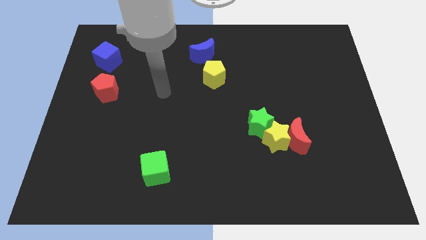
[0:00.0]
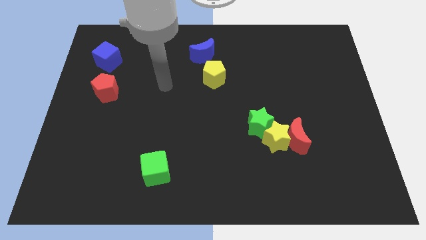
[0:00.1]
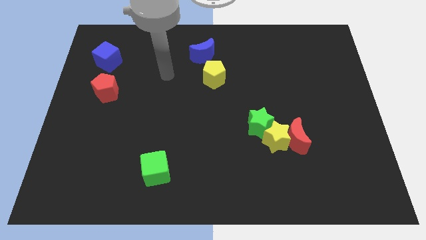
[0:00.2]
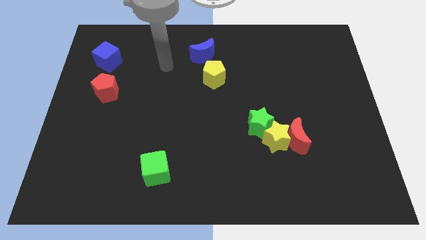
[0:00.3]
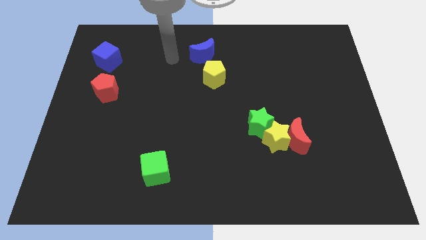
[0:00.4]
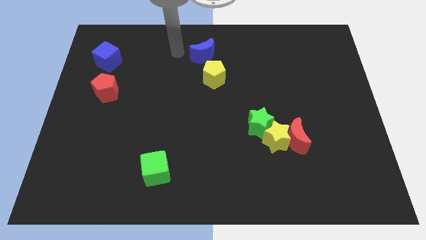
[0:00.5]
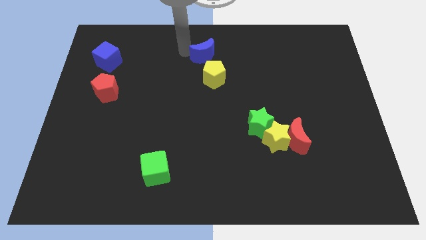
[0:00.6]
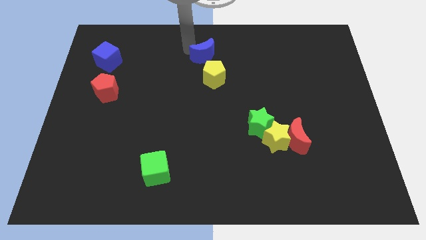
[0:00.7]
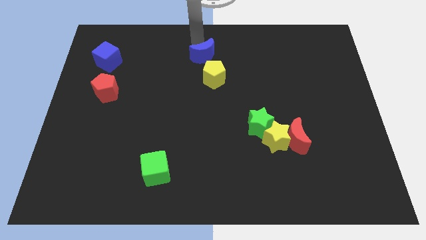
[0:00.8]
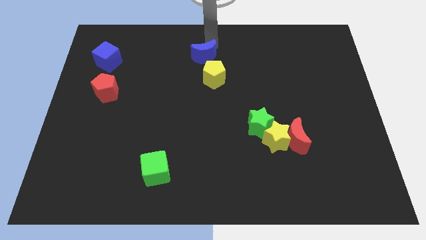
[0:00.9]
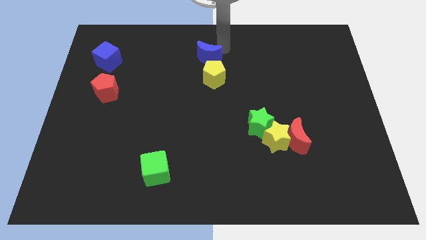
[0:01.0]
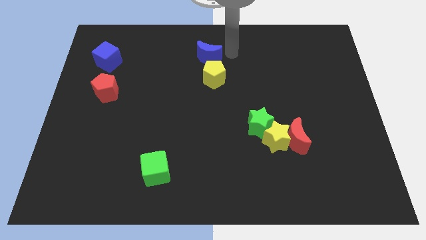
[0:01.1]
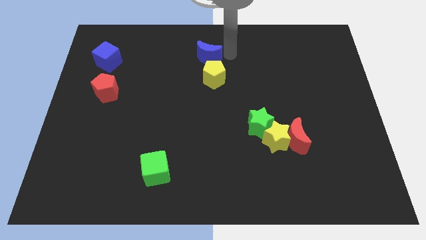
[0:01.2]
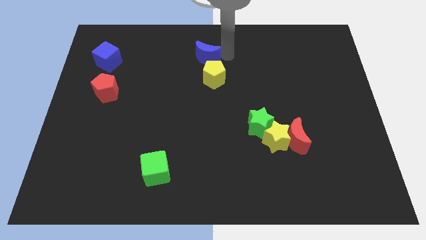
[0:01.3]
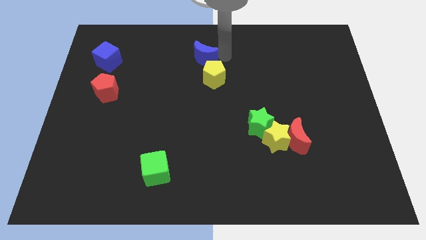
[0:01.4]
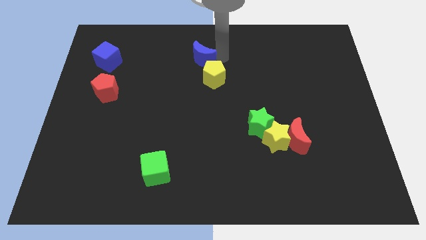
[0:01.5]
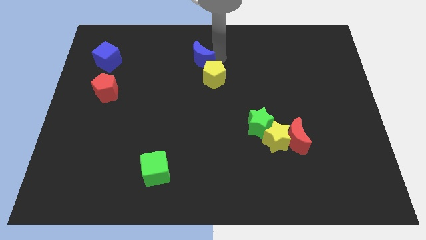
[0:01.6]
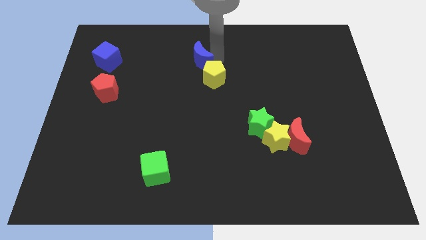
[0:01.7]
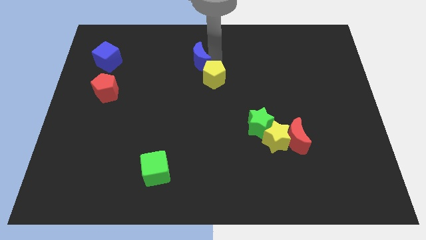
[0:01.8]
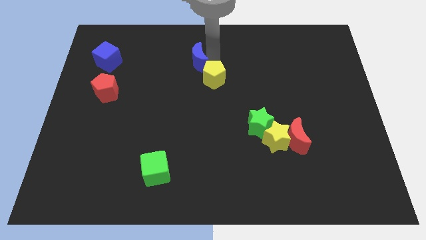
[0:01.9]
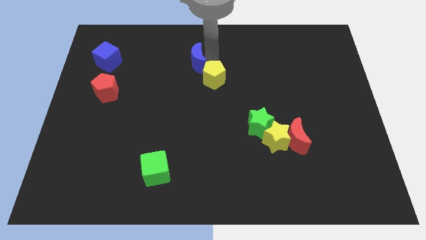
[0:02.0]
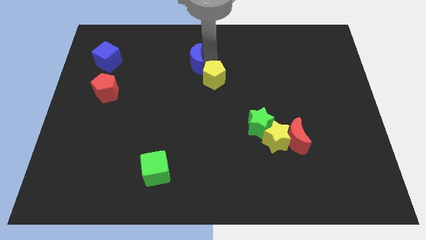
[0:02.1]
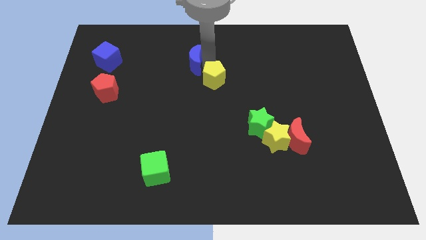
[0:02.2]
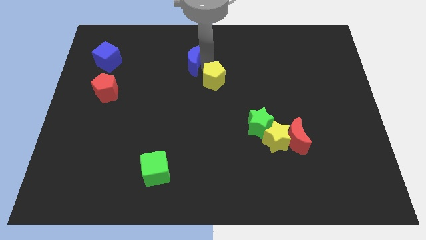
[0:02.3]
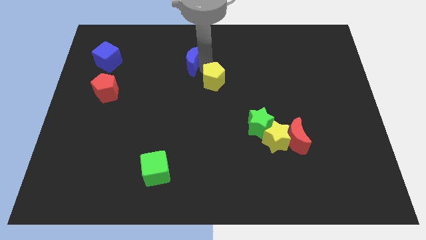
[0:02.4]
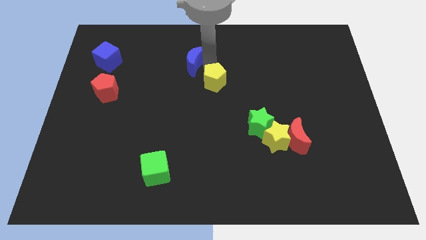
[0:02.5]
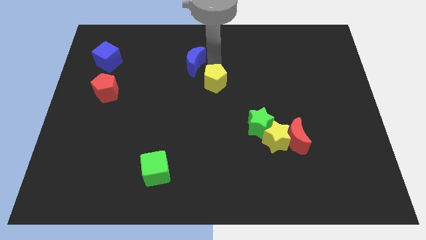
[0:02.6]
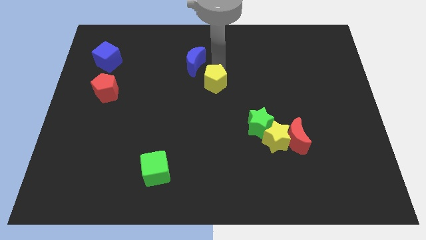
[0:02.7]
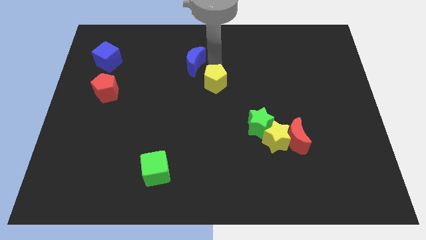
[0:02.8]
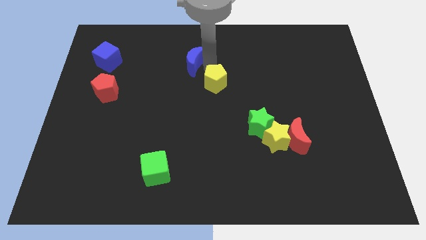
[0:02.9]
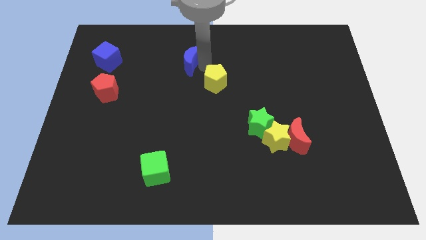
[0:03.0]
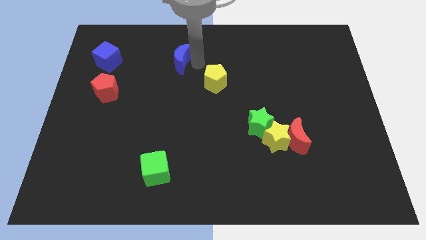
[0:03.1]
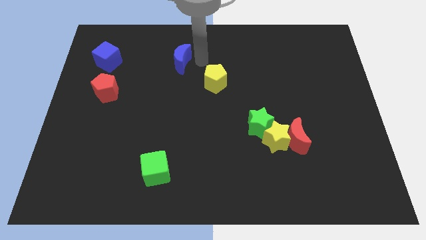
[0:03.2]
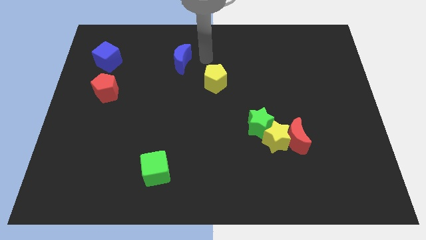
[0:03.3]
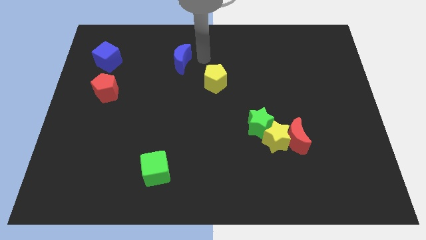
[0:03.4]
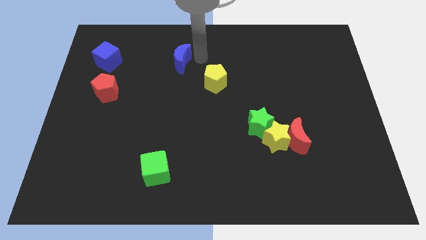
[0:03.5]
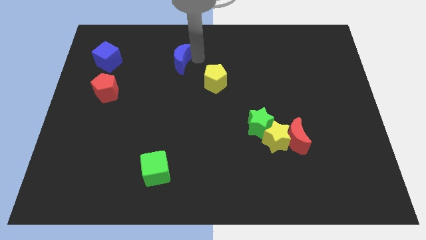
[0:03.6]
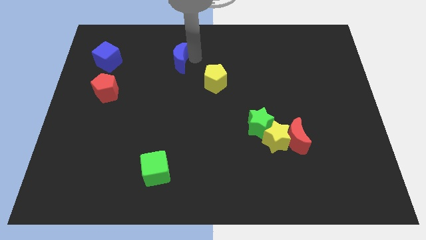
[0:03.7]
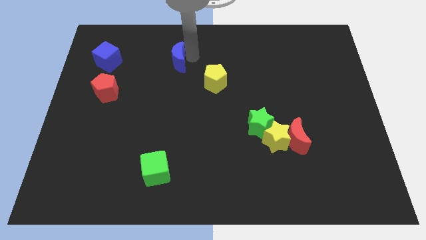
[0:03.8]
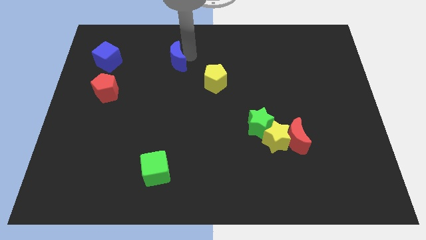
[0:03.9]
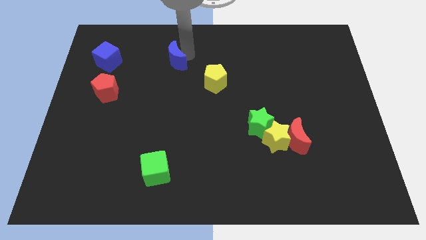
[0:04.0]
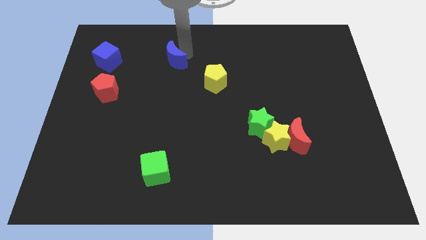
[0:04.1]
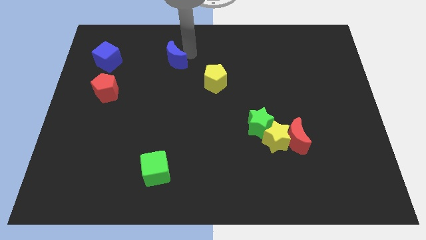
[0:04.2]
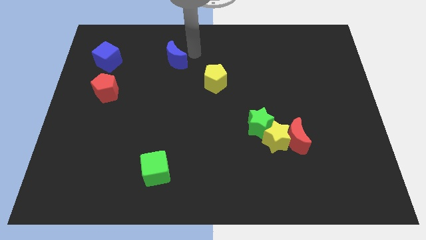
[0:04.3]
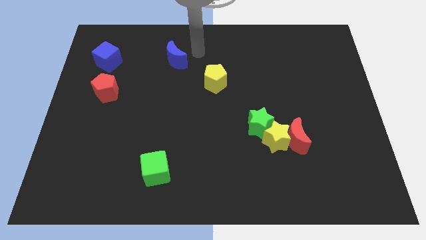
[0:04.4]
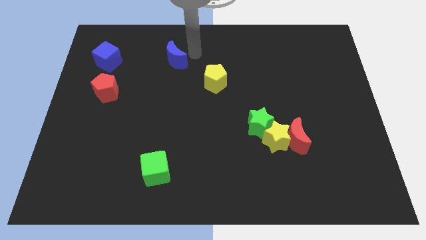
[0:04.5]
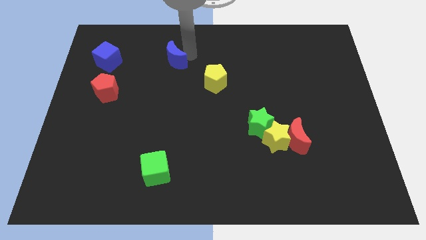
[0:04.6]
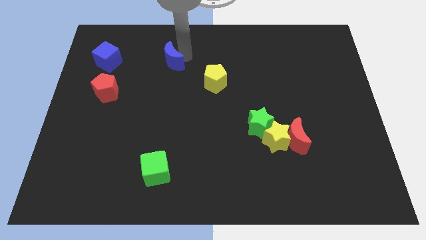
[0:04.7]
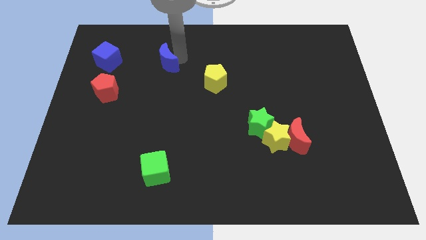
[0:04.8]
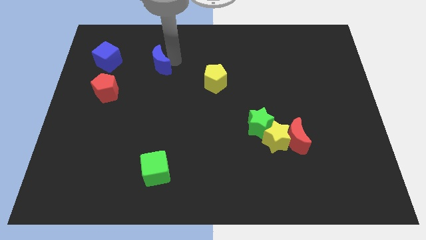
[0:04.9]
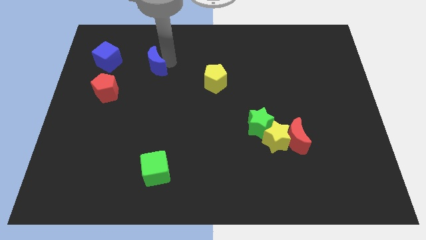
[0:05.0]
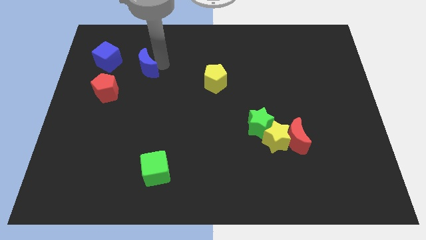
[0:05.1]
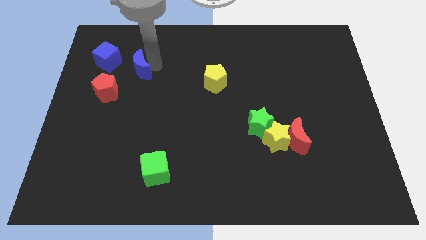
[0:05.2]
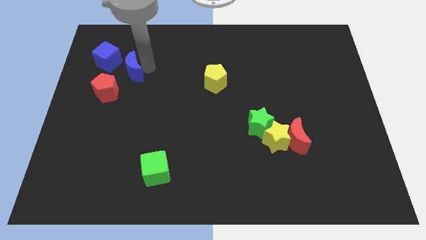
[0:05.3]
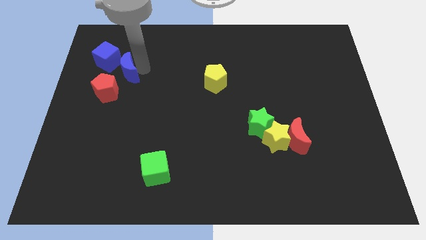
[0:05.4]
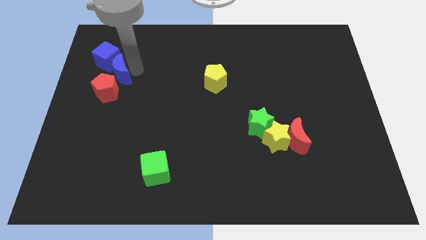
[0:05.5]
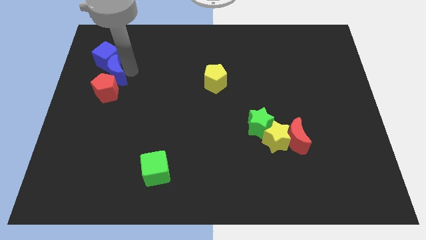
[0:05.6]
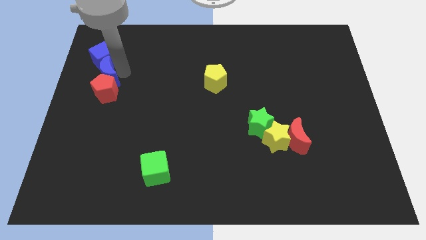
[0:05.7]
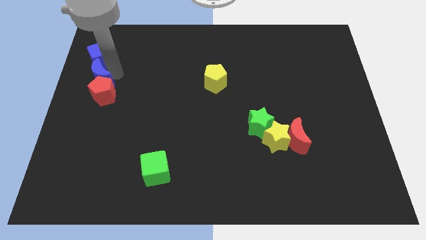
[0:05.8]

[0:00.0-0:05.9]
slide the blue moon to the left side of the board

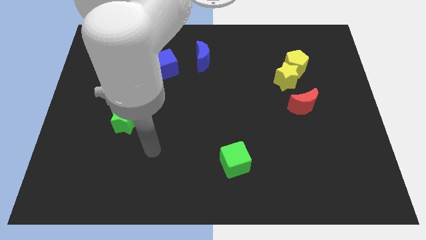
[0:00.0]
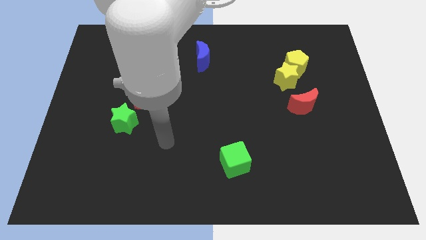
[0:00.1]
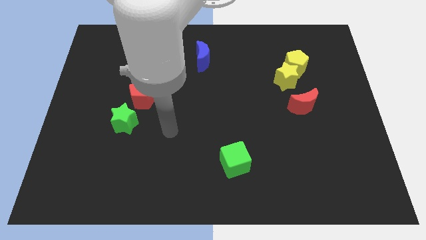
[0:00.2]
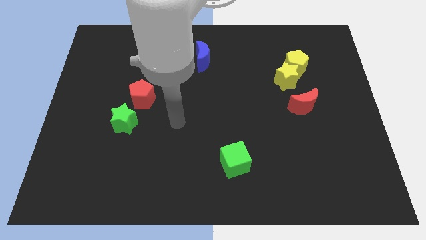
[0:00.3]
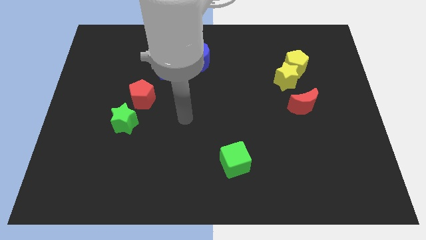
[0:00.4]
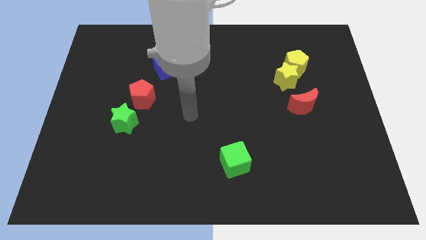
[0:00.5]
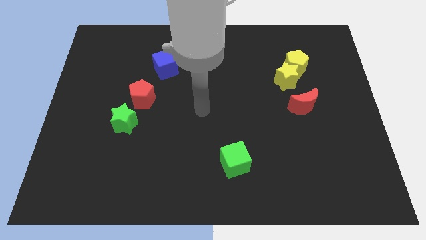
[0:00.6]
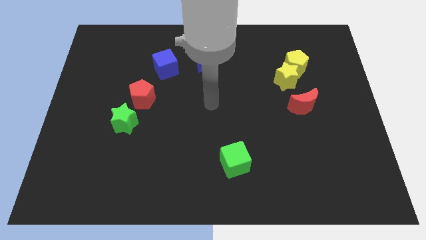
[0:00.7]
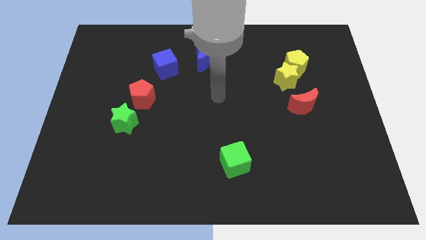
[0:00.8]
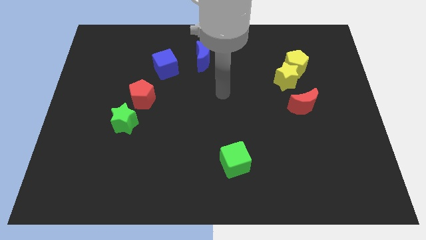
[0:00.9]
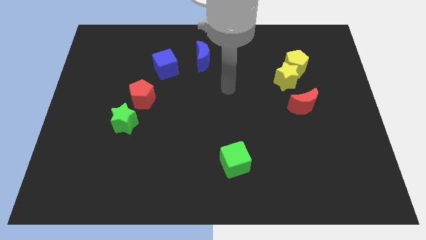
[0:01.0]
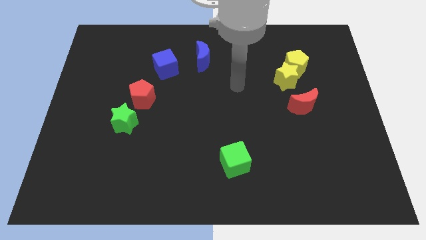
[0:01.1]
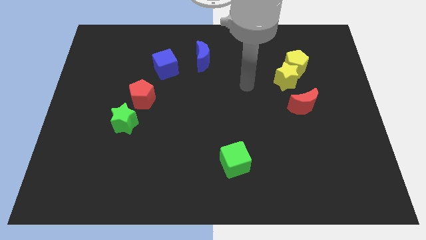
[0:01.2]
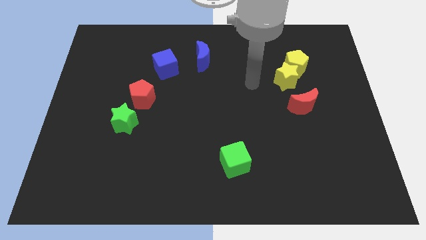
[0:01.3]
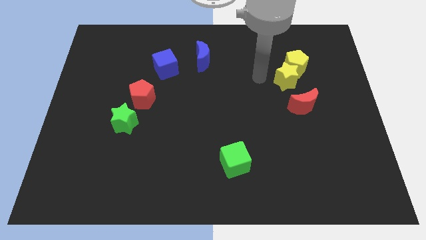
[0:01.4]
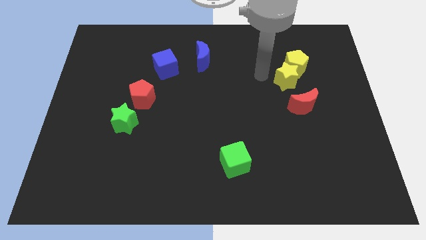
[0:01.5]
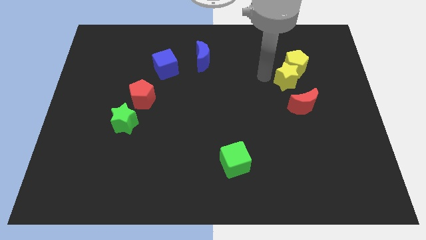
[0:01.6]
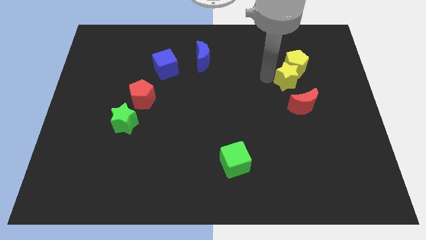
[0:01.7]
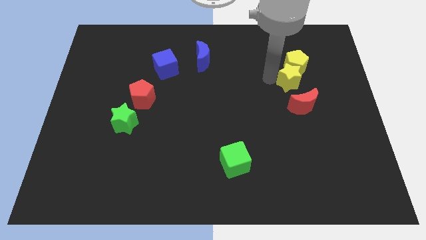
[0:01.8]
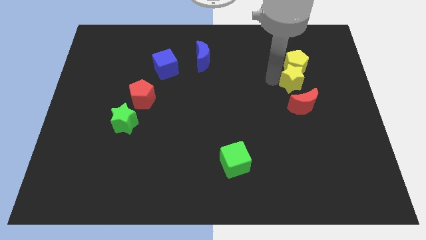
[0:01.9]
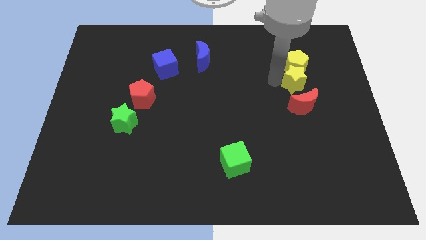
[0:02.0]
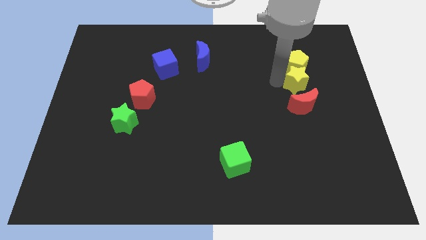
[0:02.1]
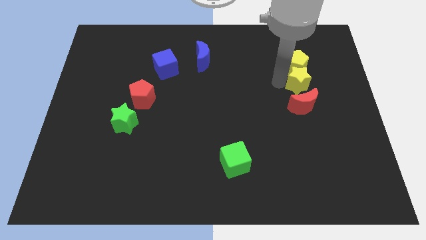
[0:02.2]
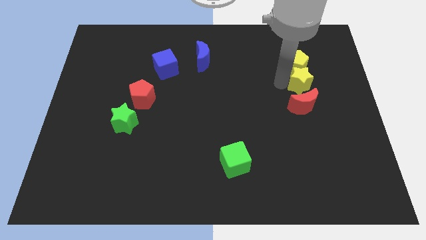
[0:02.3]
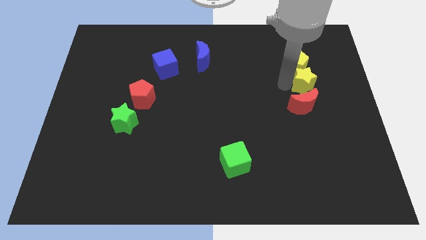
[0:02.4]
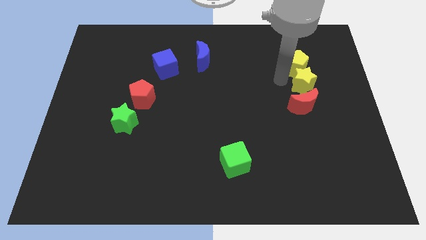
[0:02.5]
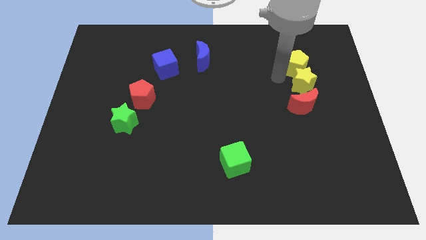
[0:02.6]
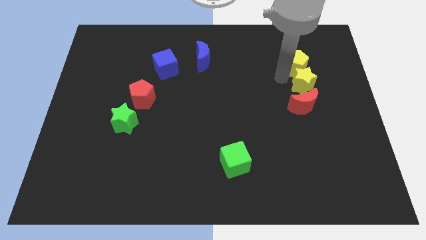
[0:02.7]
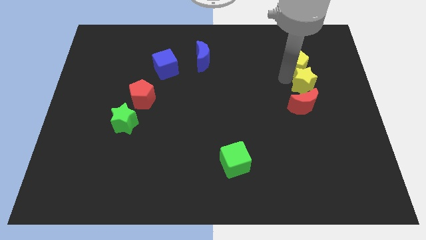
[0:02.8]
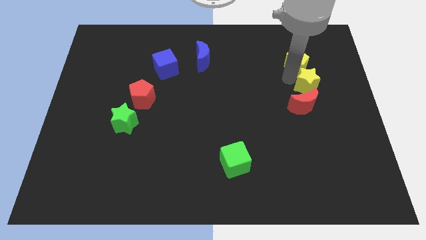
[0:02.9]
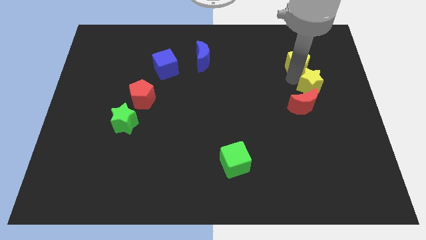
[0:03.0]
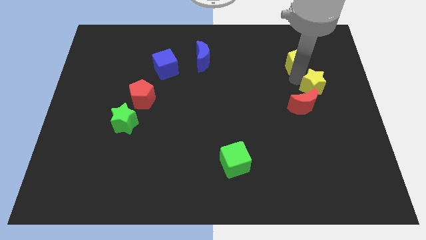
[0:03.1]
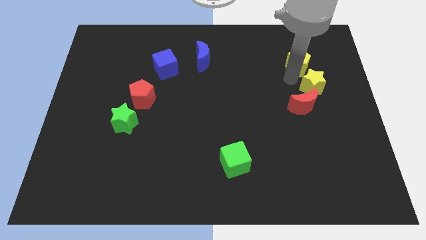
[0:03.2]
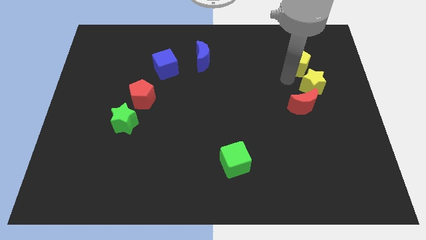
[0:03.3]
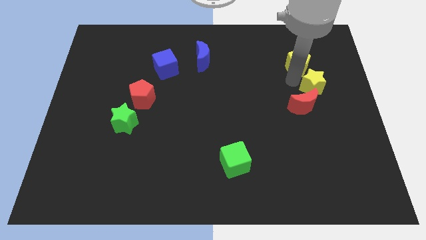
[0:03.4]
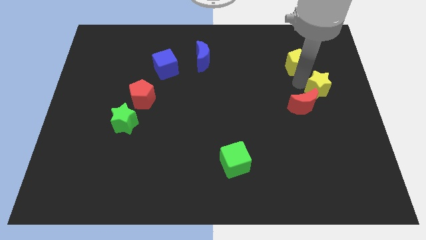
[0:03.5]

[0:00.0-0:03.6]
move the yellow star to the right side
